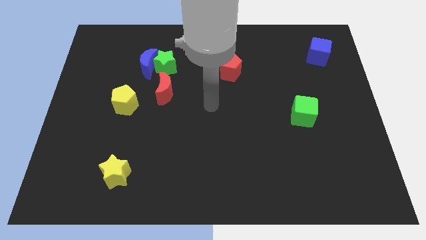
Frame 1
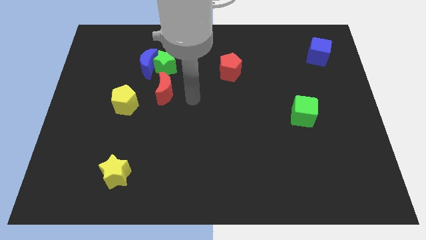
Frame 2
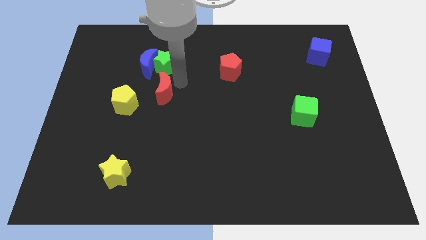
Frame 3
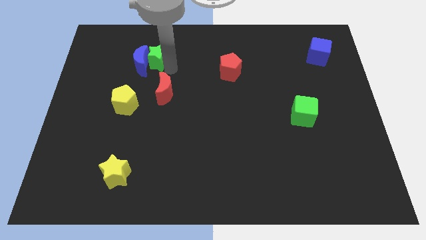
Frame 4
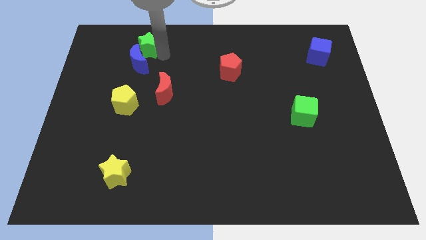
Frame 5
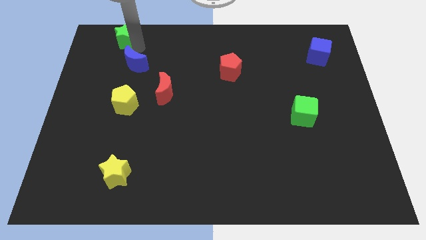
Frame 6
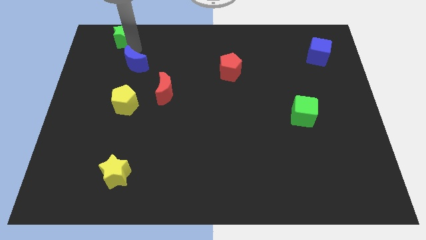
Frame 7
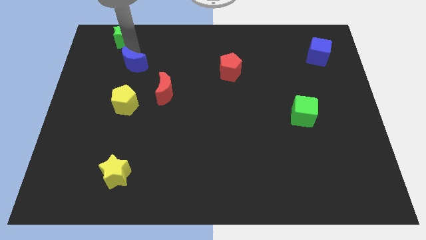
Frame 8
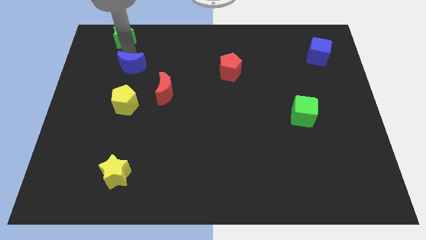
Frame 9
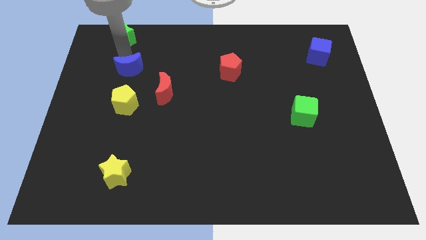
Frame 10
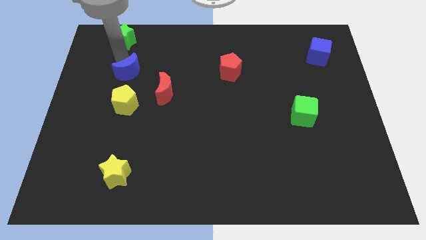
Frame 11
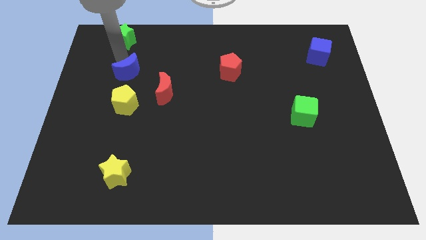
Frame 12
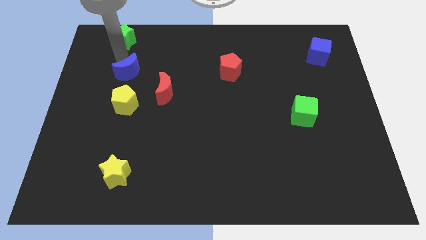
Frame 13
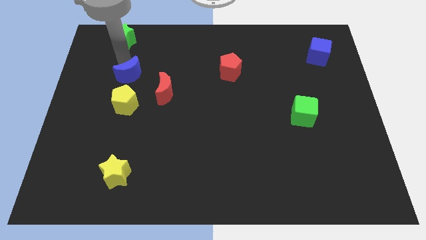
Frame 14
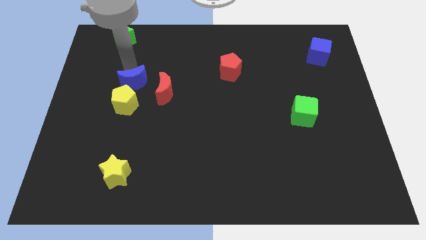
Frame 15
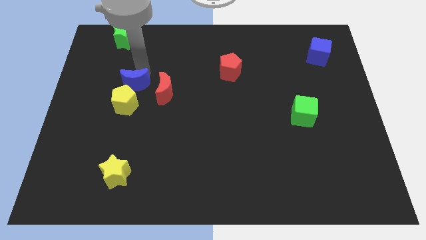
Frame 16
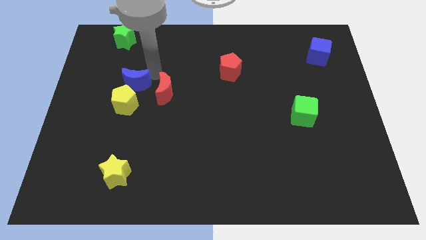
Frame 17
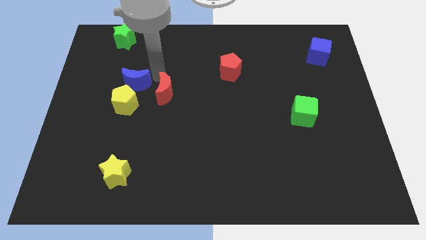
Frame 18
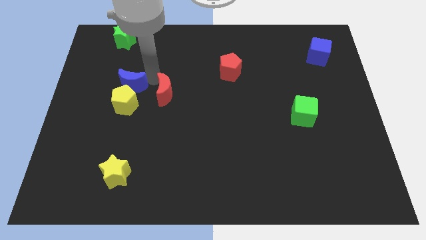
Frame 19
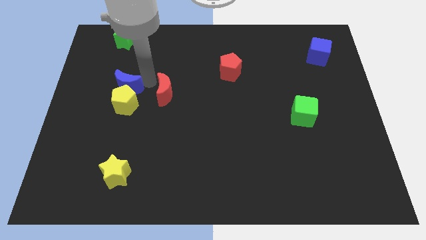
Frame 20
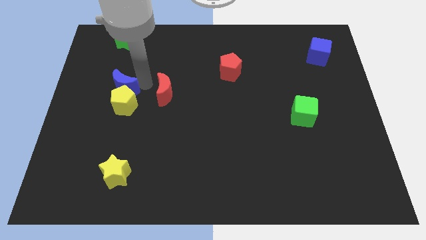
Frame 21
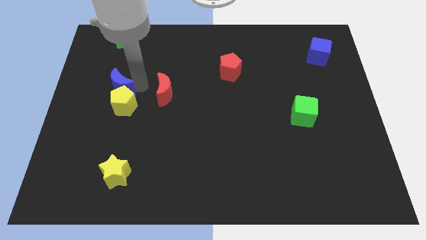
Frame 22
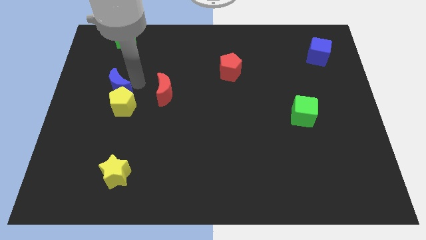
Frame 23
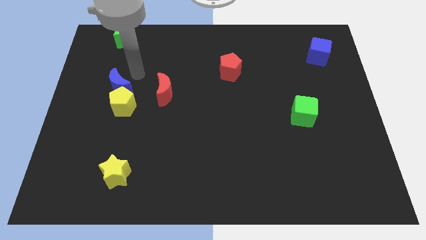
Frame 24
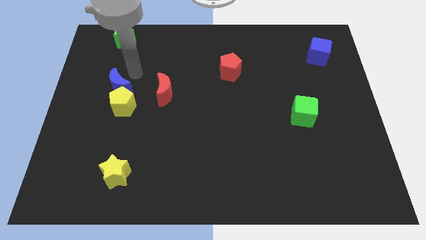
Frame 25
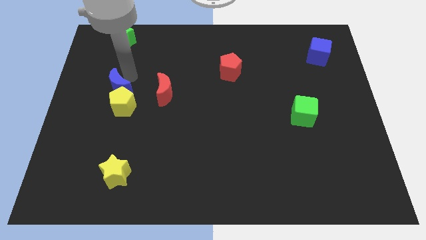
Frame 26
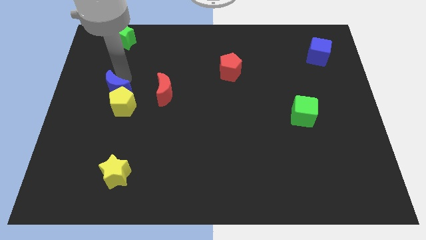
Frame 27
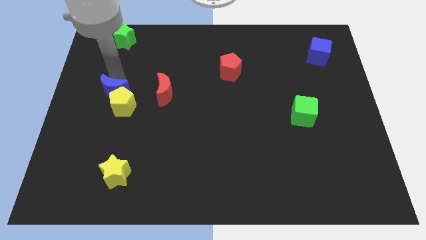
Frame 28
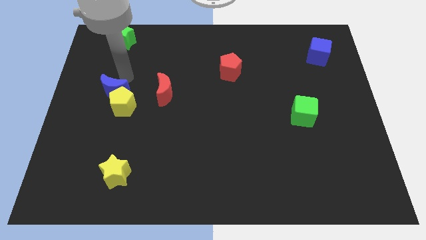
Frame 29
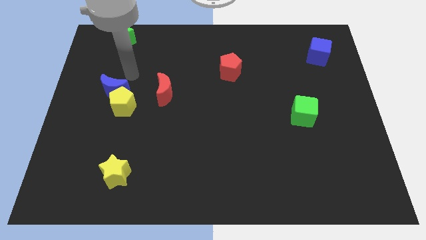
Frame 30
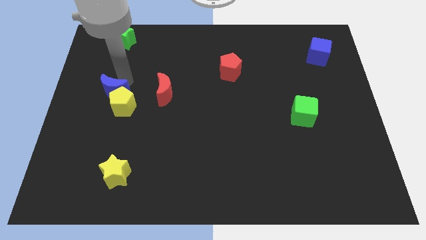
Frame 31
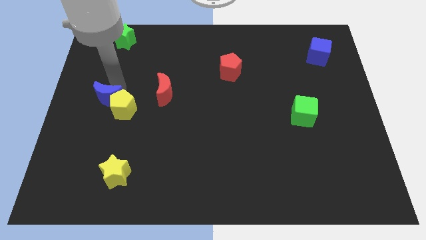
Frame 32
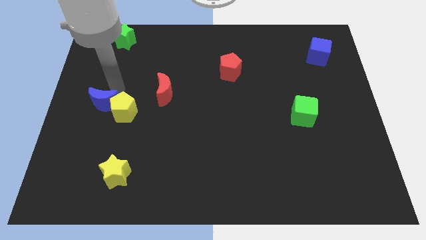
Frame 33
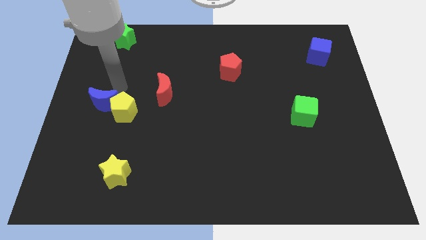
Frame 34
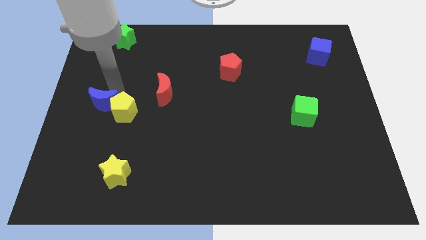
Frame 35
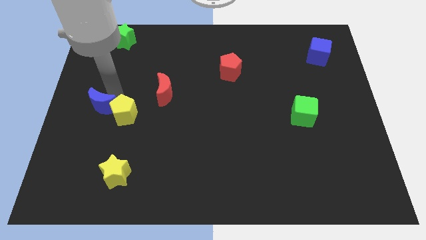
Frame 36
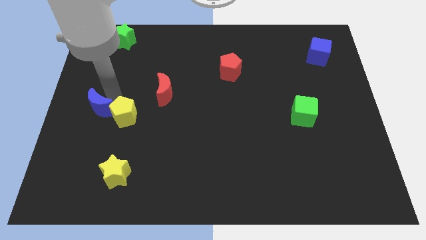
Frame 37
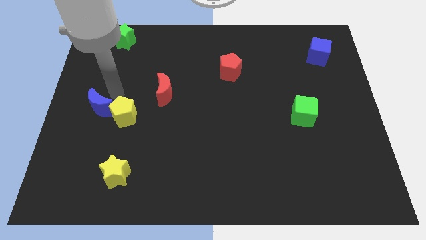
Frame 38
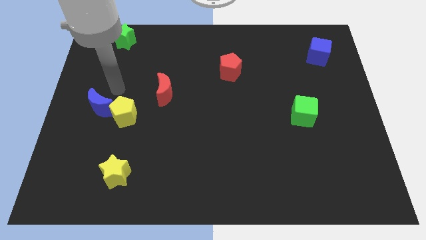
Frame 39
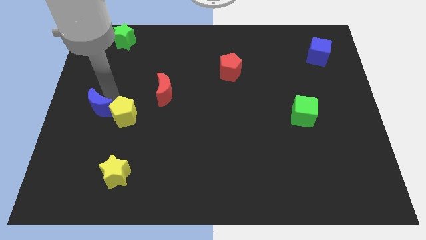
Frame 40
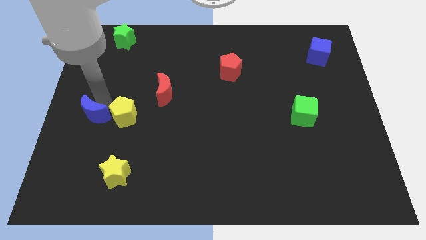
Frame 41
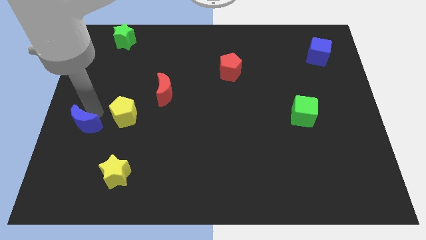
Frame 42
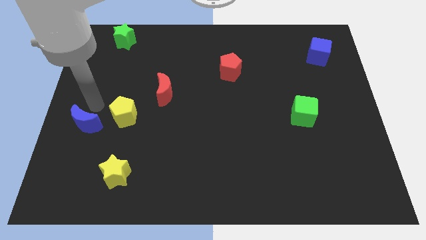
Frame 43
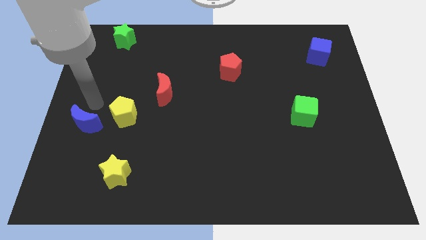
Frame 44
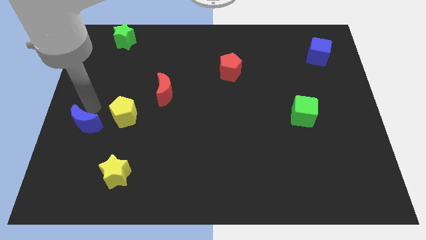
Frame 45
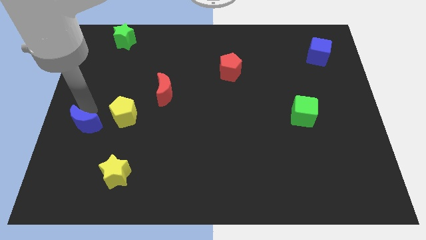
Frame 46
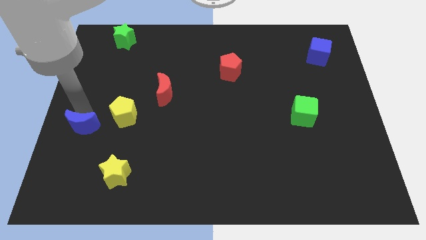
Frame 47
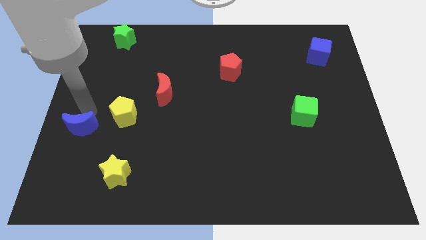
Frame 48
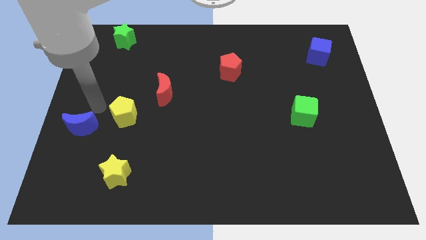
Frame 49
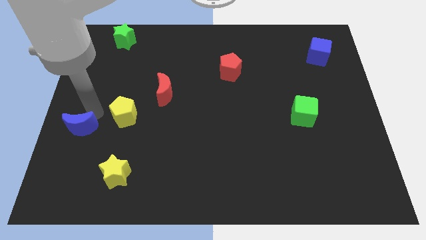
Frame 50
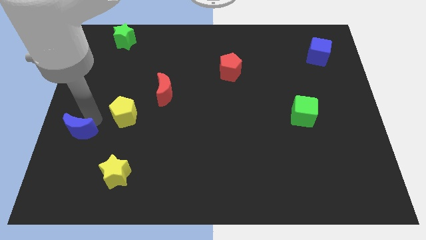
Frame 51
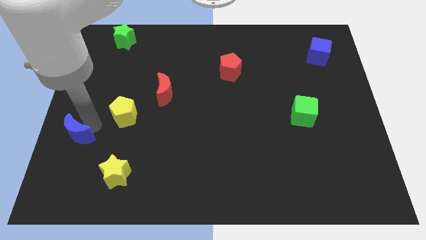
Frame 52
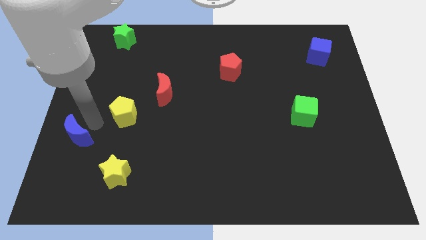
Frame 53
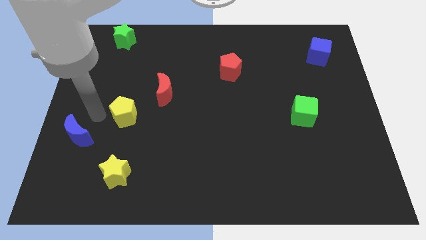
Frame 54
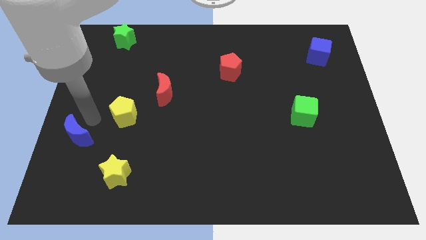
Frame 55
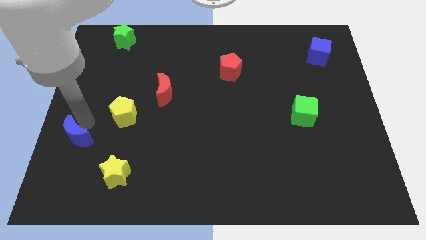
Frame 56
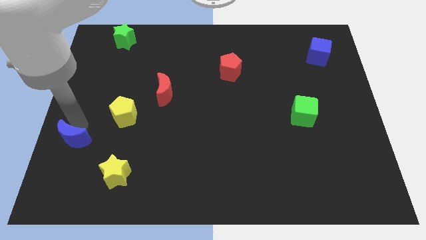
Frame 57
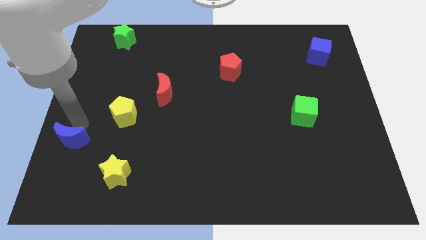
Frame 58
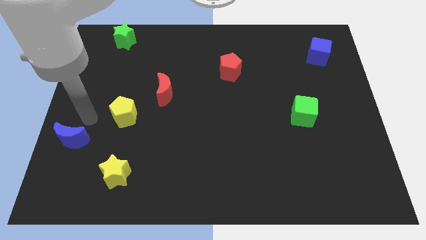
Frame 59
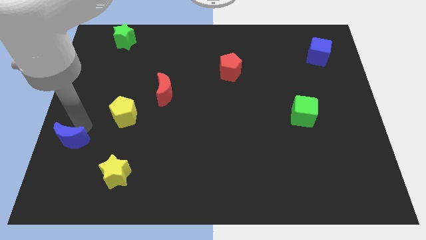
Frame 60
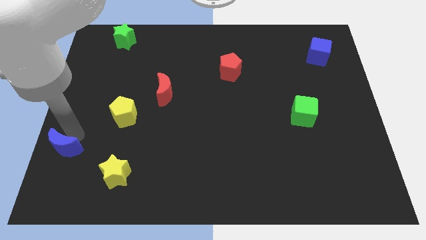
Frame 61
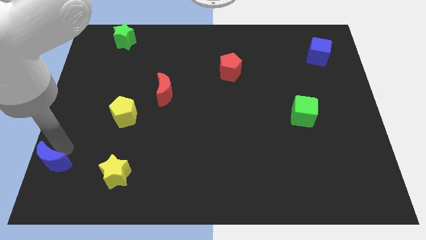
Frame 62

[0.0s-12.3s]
put the blue moon to the bottom left corner
